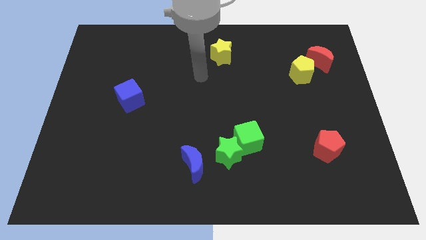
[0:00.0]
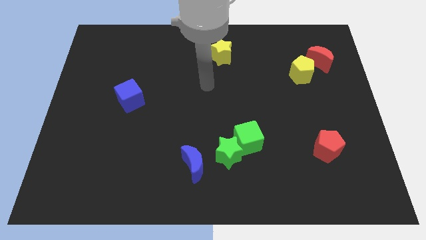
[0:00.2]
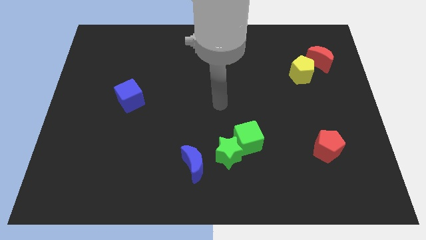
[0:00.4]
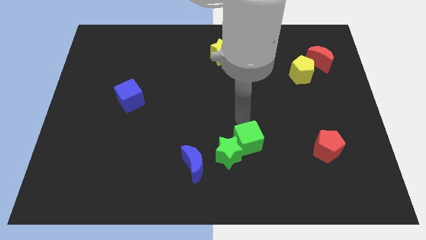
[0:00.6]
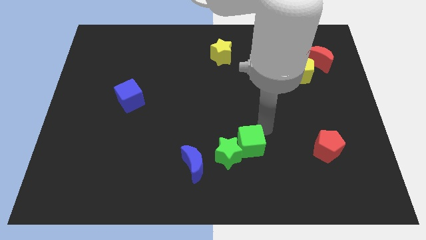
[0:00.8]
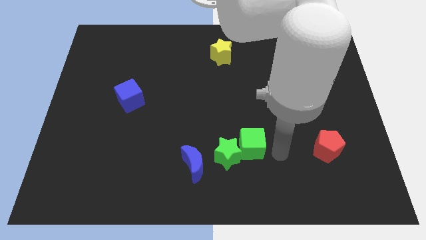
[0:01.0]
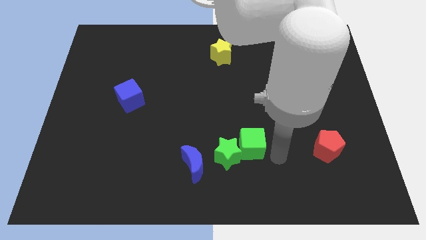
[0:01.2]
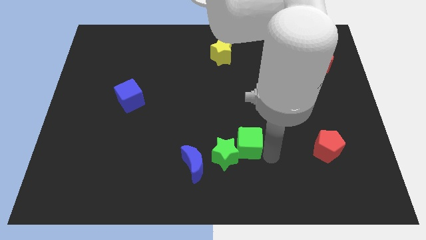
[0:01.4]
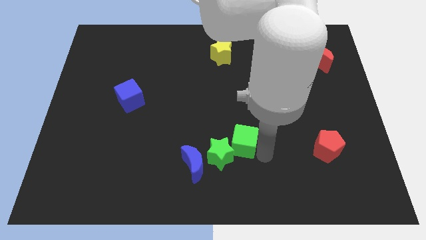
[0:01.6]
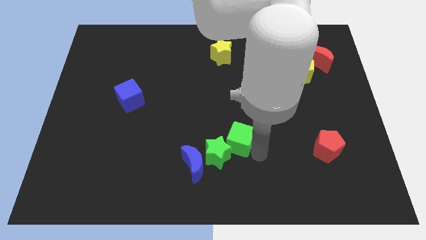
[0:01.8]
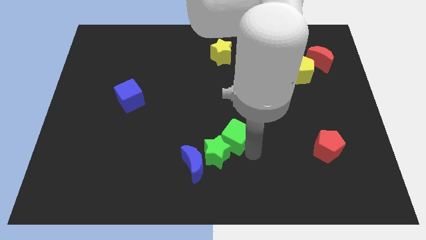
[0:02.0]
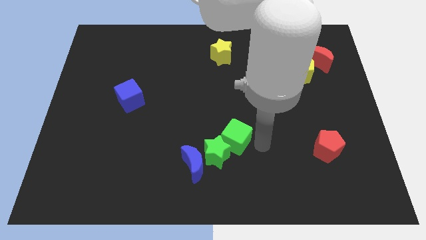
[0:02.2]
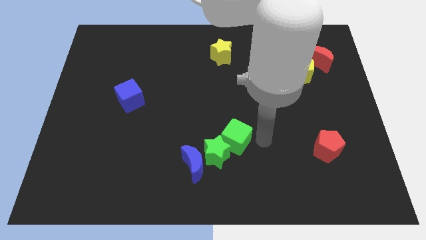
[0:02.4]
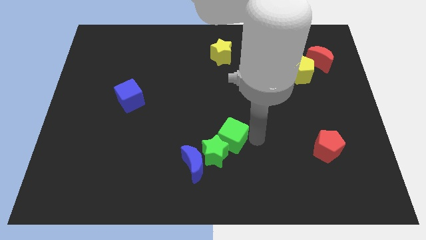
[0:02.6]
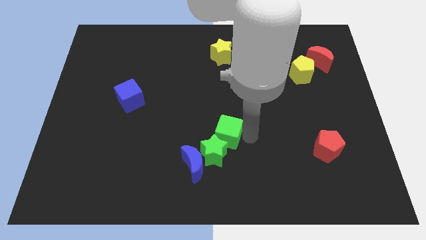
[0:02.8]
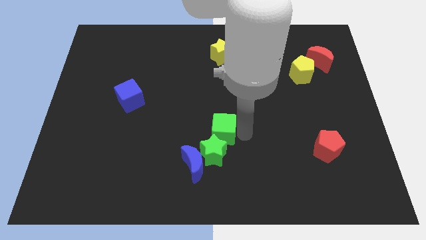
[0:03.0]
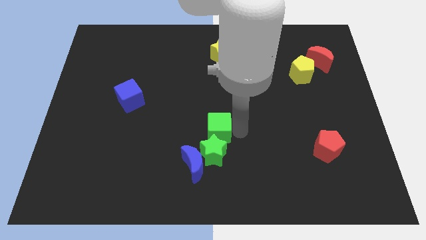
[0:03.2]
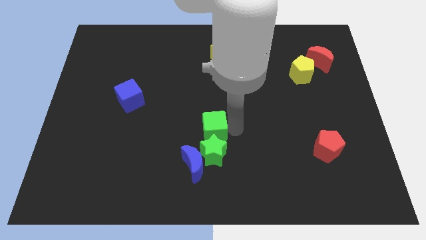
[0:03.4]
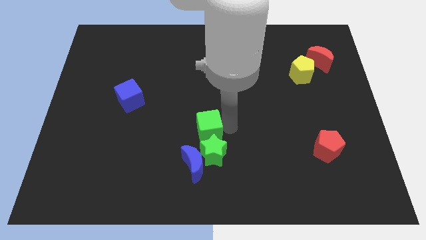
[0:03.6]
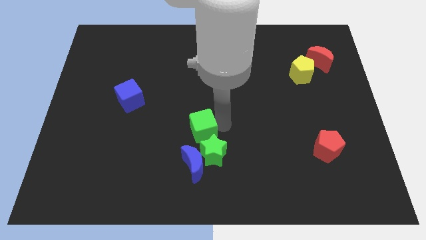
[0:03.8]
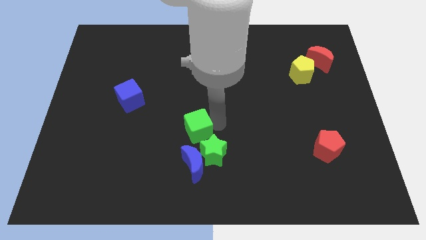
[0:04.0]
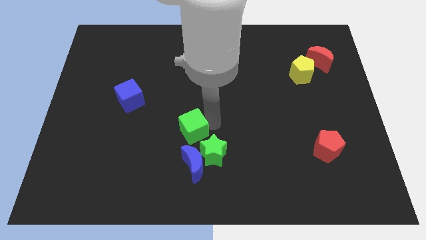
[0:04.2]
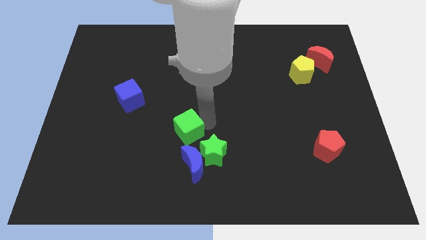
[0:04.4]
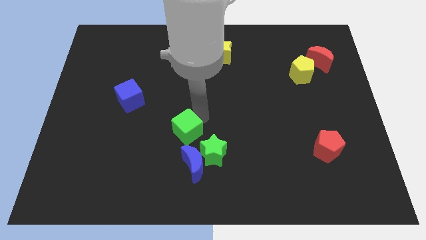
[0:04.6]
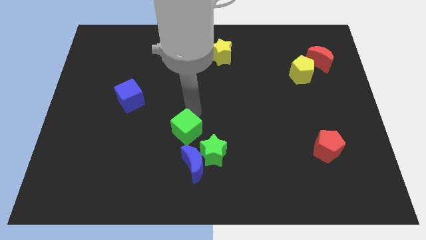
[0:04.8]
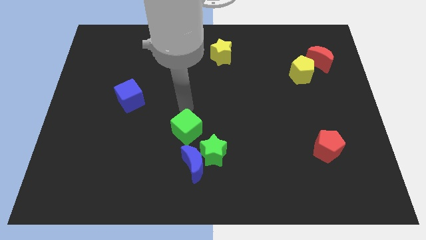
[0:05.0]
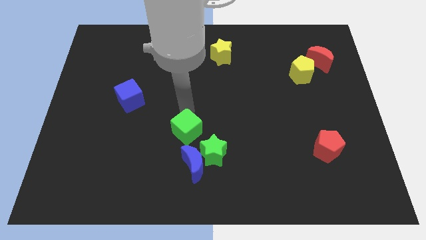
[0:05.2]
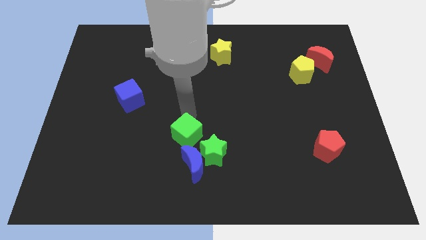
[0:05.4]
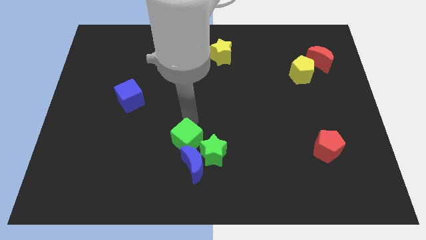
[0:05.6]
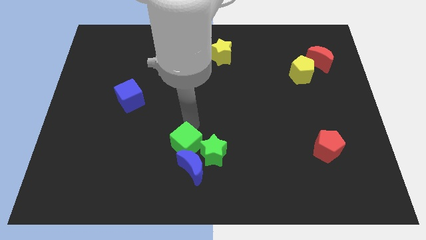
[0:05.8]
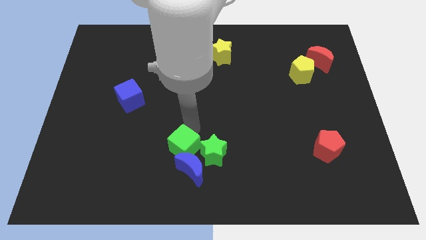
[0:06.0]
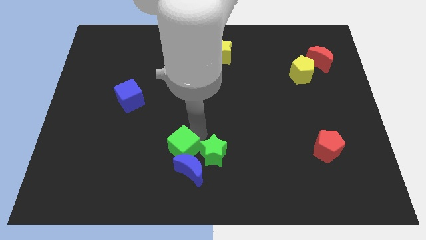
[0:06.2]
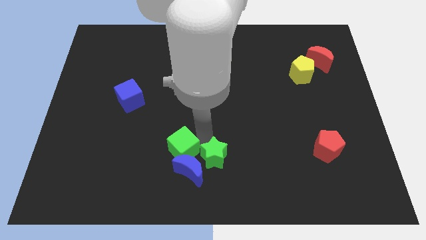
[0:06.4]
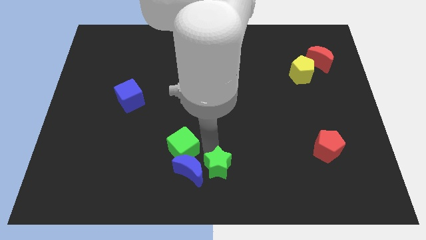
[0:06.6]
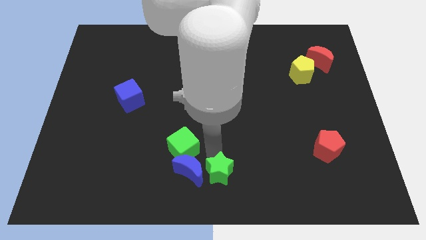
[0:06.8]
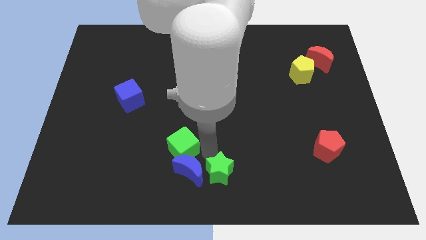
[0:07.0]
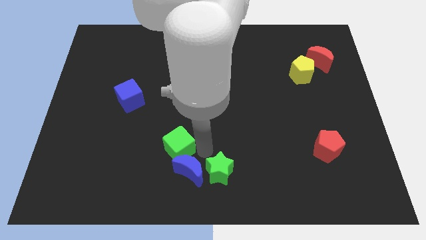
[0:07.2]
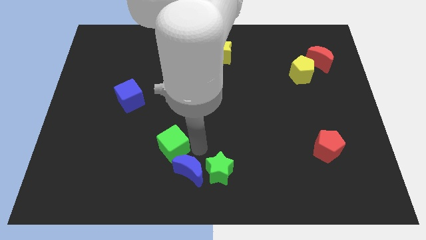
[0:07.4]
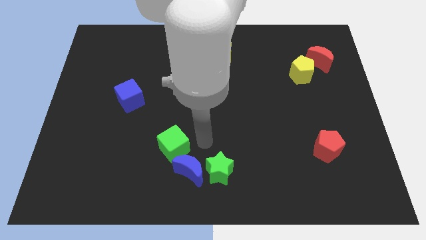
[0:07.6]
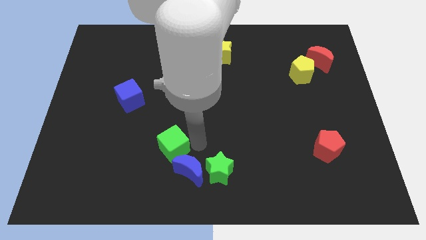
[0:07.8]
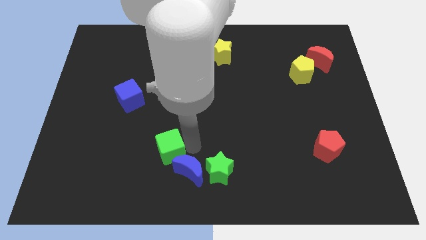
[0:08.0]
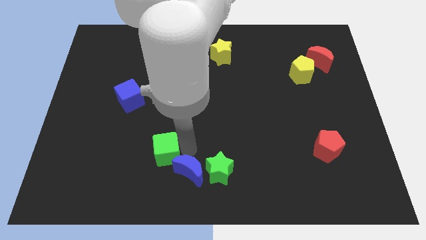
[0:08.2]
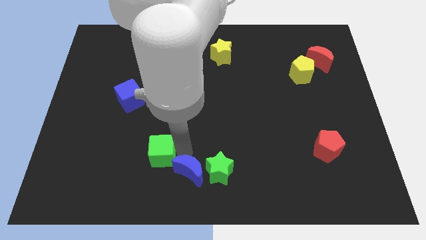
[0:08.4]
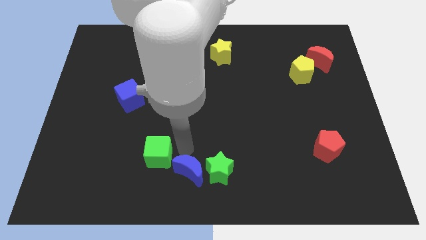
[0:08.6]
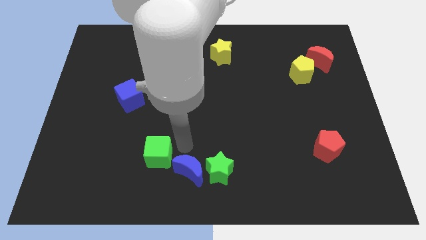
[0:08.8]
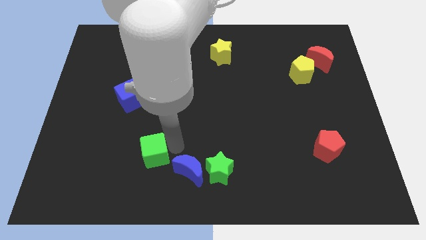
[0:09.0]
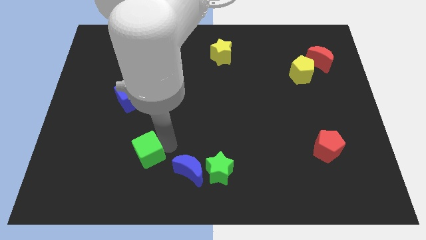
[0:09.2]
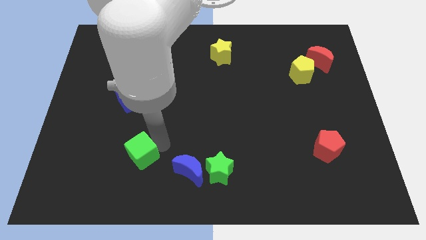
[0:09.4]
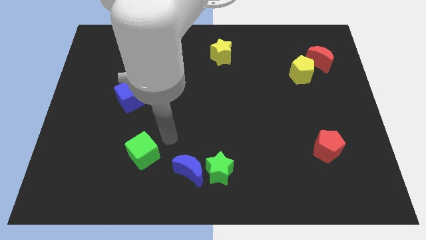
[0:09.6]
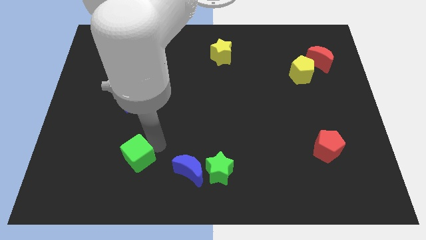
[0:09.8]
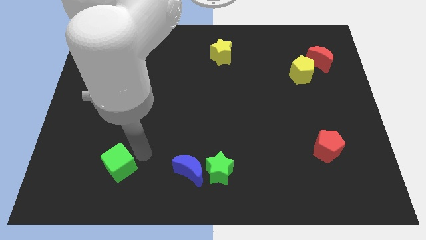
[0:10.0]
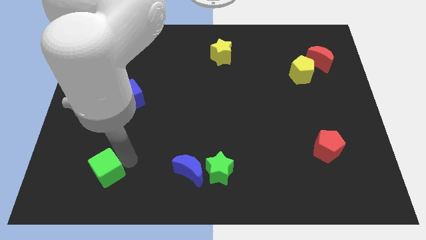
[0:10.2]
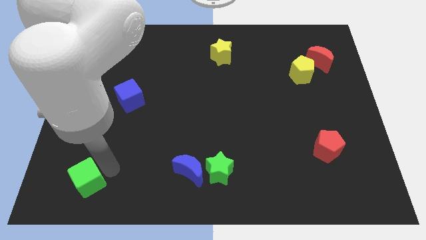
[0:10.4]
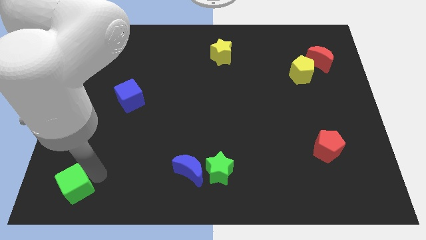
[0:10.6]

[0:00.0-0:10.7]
put the green cube to the bottom left of the board

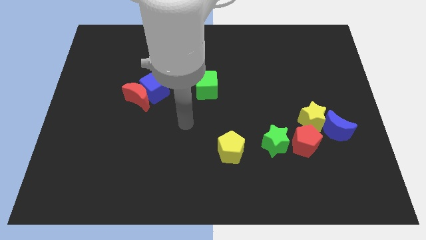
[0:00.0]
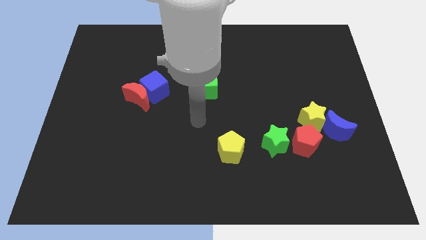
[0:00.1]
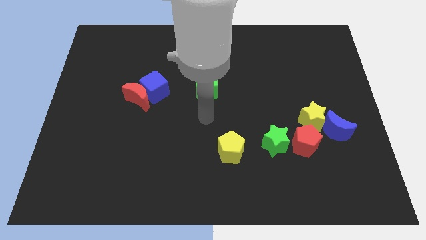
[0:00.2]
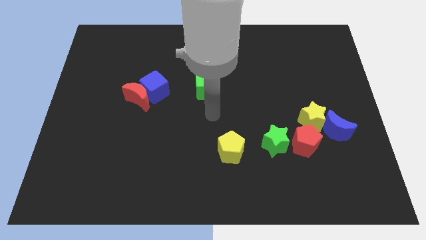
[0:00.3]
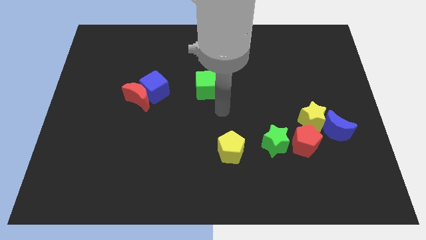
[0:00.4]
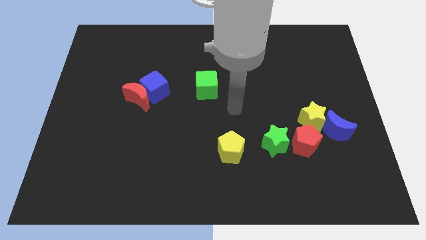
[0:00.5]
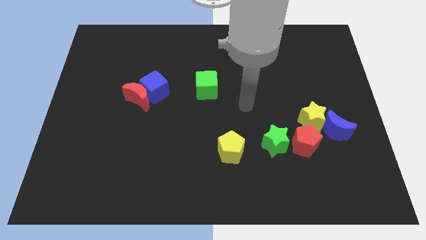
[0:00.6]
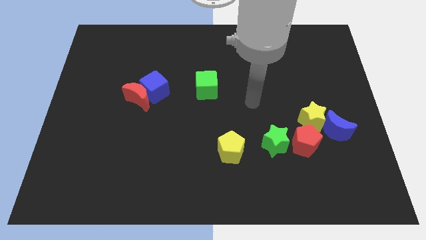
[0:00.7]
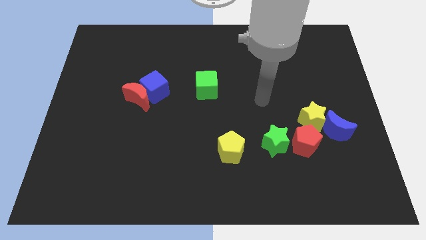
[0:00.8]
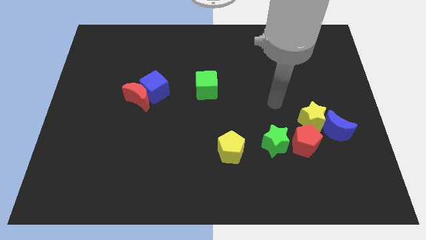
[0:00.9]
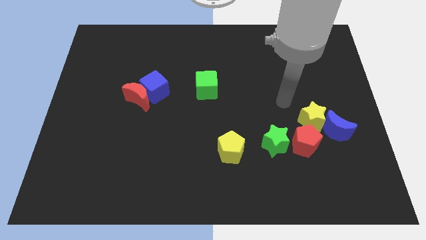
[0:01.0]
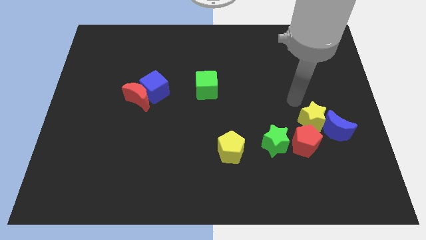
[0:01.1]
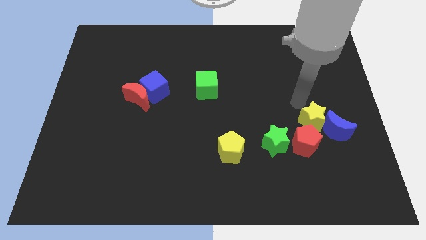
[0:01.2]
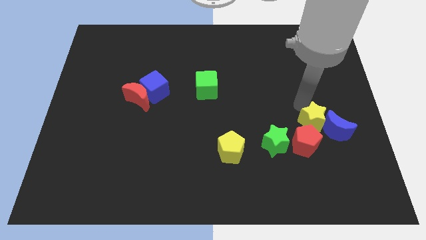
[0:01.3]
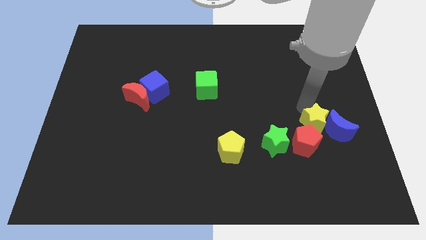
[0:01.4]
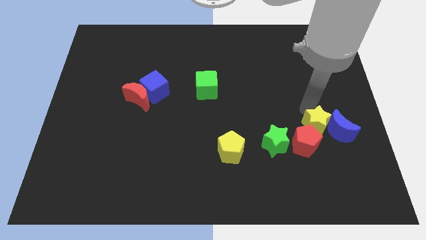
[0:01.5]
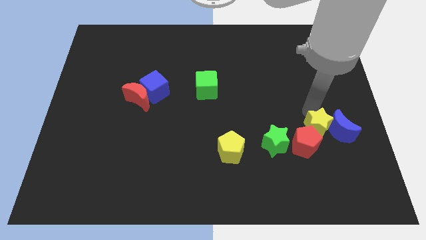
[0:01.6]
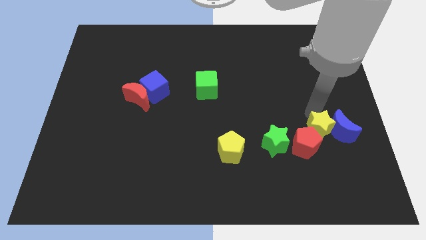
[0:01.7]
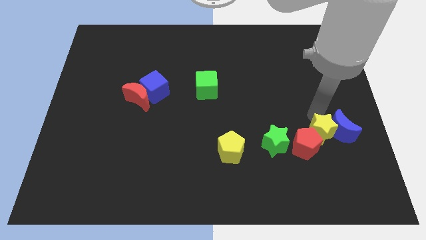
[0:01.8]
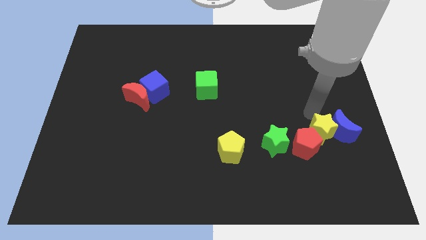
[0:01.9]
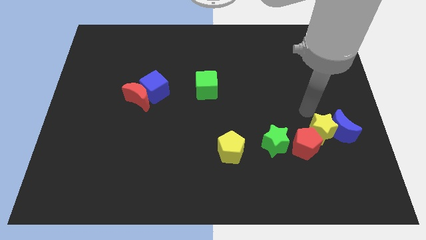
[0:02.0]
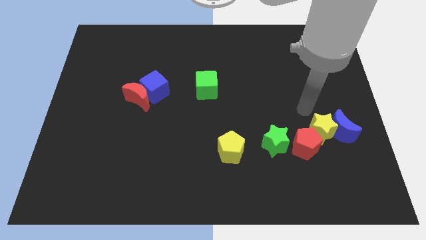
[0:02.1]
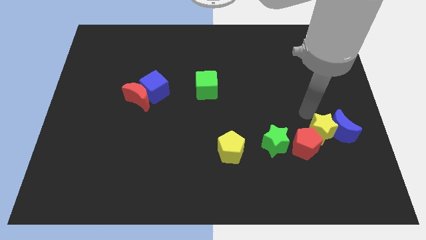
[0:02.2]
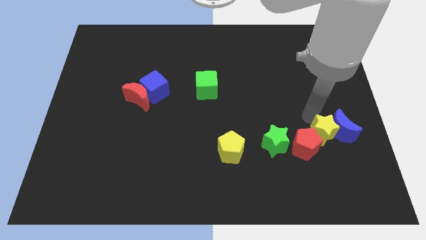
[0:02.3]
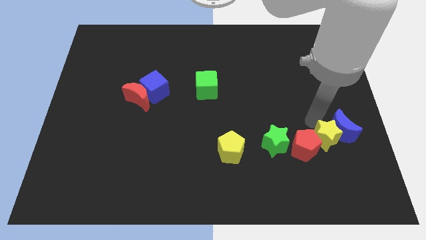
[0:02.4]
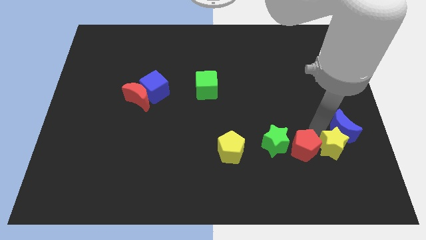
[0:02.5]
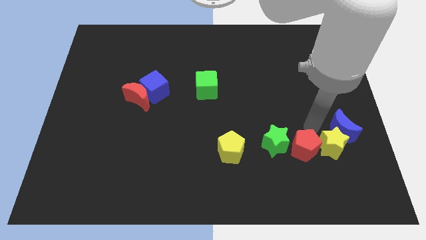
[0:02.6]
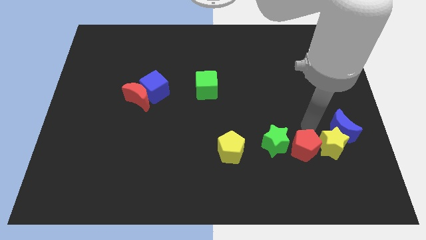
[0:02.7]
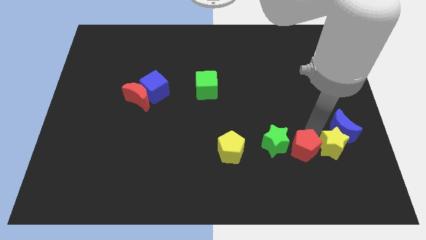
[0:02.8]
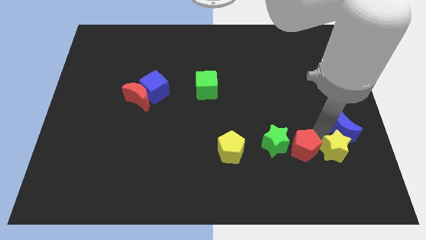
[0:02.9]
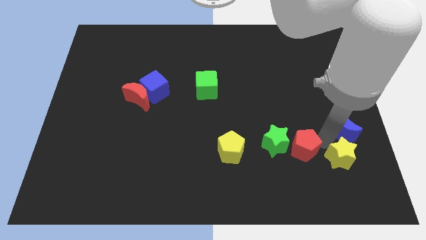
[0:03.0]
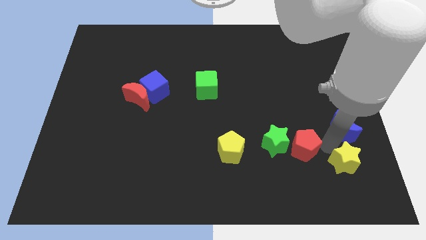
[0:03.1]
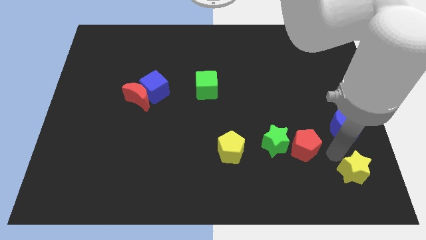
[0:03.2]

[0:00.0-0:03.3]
put the yellow star to the lower right corner
